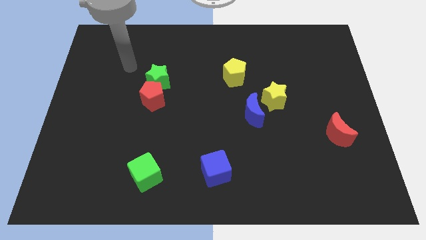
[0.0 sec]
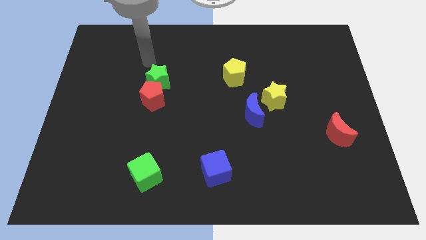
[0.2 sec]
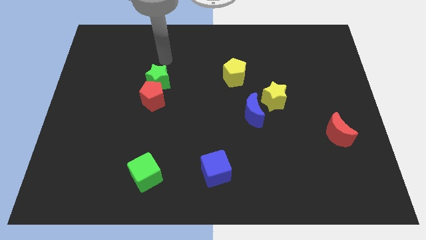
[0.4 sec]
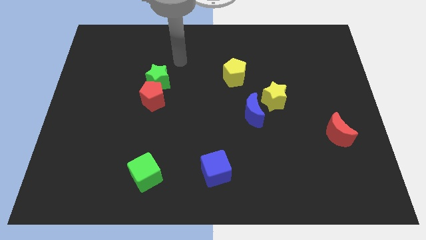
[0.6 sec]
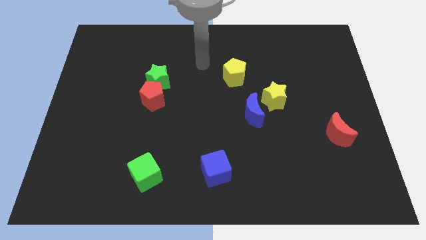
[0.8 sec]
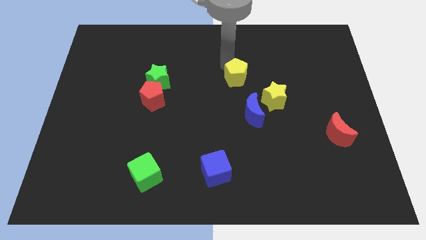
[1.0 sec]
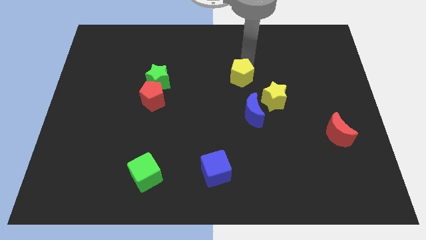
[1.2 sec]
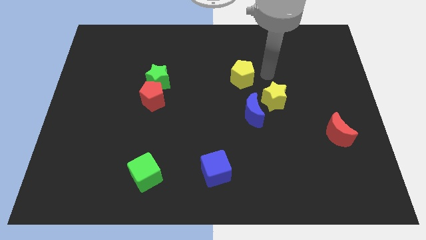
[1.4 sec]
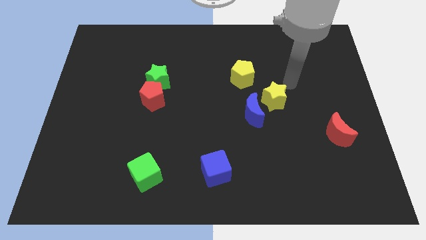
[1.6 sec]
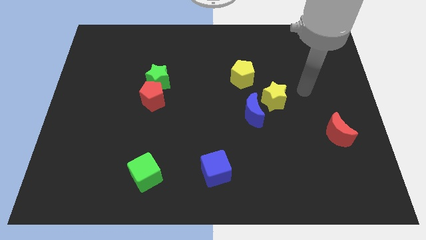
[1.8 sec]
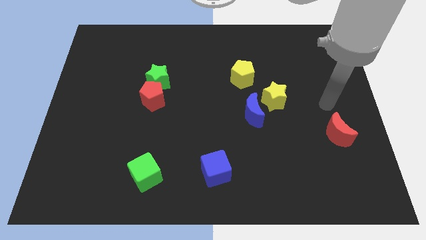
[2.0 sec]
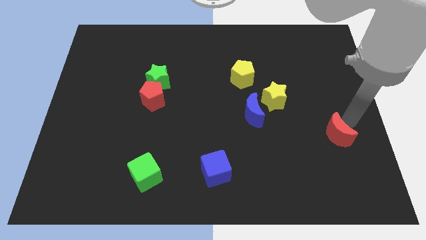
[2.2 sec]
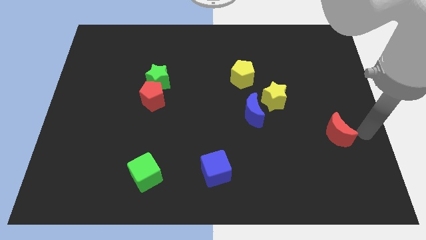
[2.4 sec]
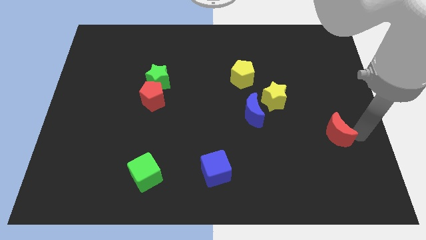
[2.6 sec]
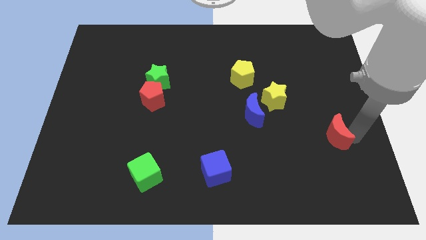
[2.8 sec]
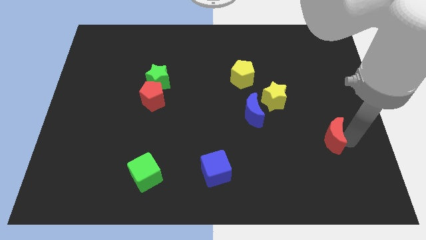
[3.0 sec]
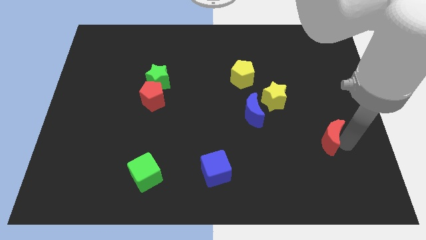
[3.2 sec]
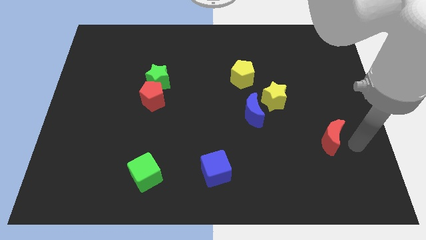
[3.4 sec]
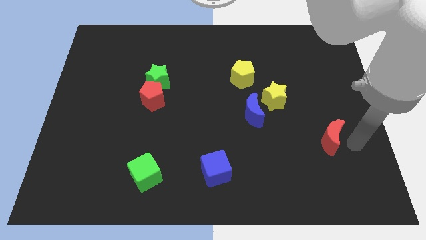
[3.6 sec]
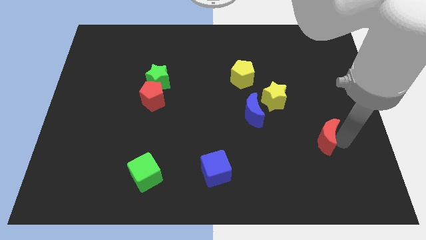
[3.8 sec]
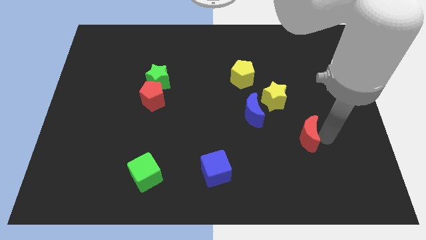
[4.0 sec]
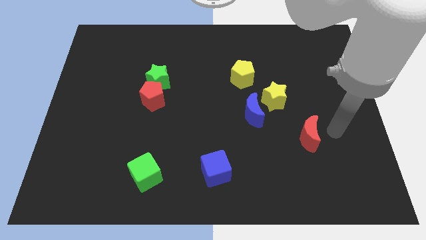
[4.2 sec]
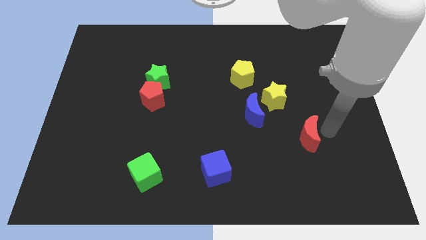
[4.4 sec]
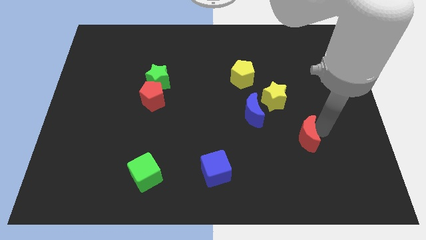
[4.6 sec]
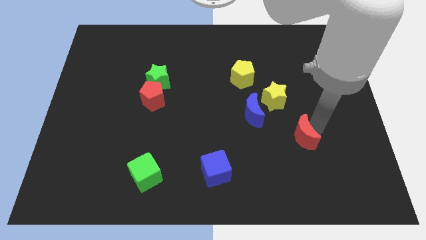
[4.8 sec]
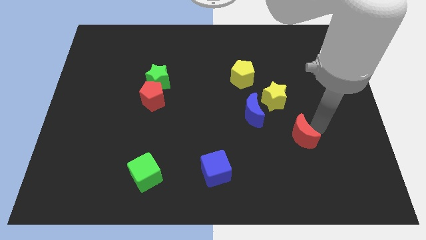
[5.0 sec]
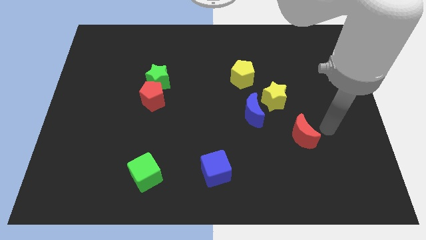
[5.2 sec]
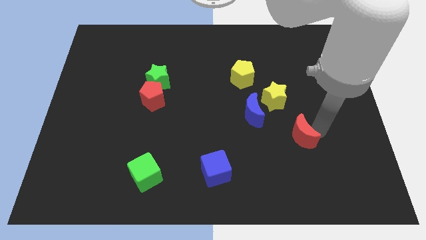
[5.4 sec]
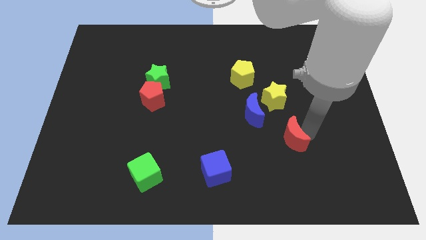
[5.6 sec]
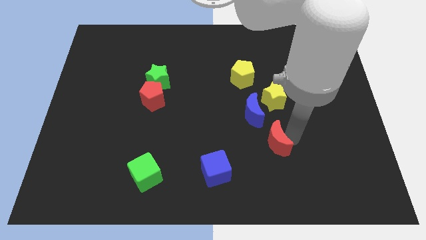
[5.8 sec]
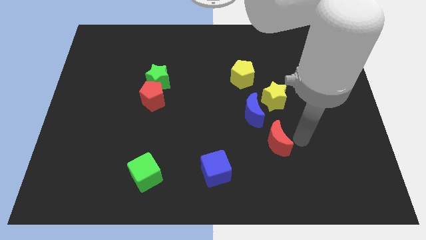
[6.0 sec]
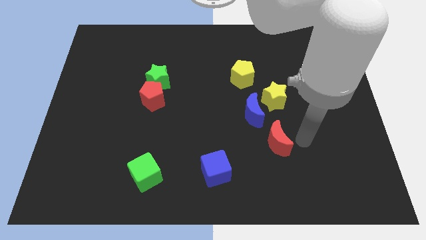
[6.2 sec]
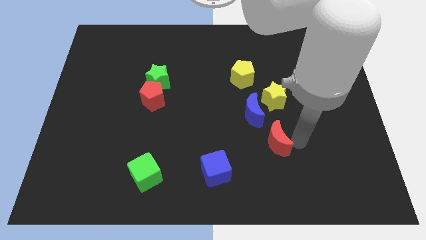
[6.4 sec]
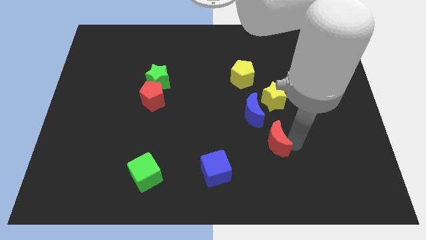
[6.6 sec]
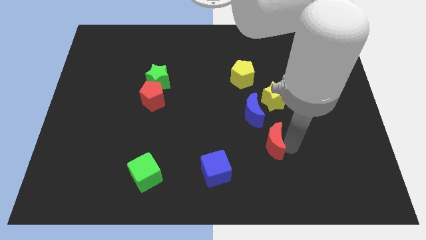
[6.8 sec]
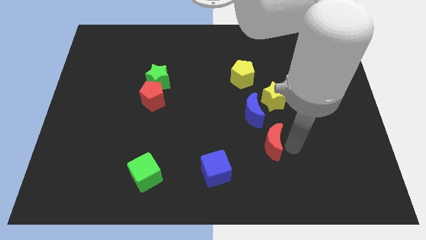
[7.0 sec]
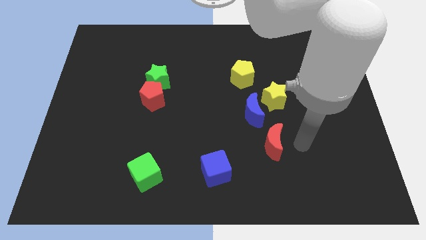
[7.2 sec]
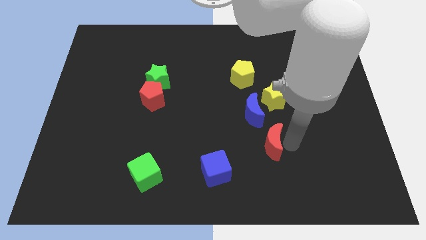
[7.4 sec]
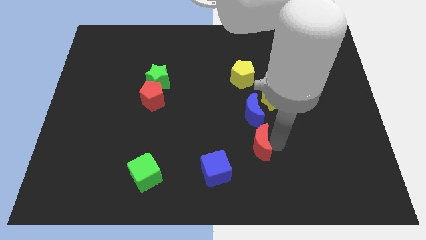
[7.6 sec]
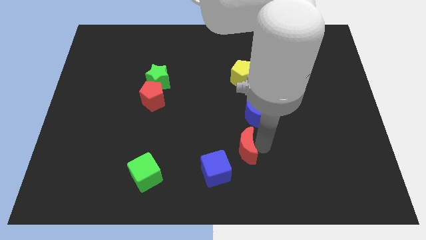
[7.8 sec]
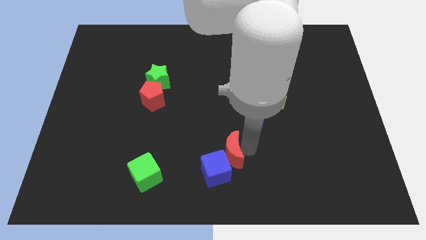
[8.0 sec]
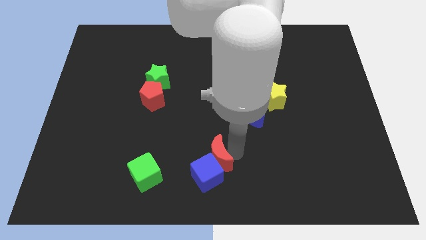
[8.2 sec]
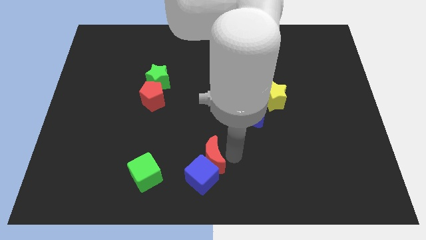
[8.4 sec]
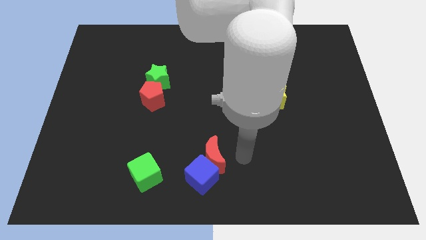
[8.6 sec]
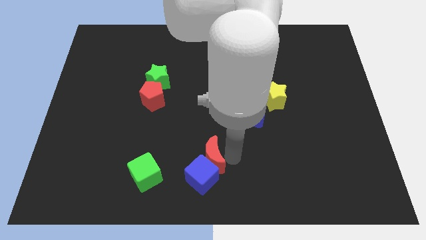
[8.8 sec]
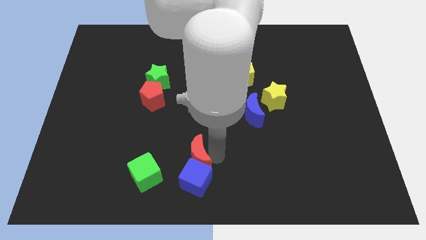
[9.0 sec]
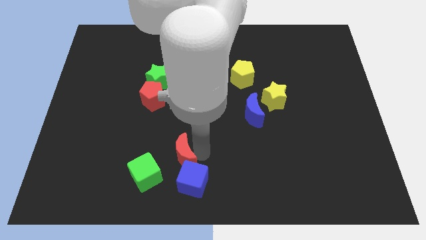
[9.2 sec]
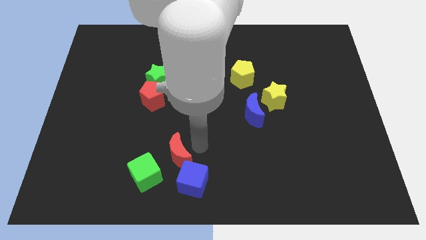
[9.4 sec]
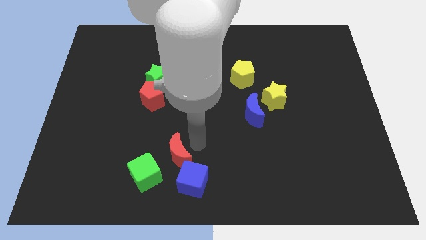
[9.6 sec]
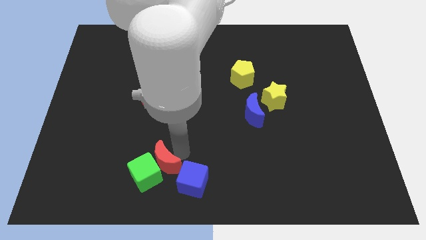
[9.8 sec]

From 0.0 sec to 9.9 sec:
slide the red moon close to the green cube

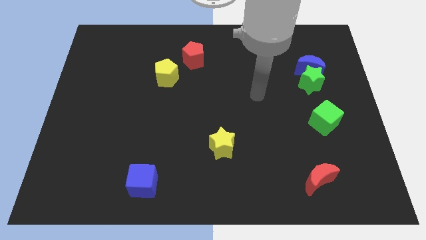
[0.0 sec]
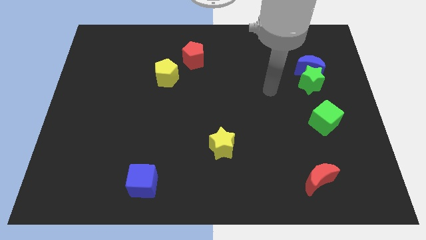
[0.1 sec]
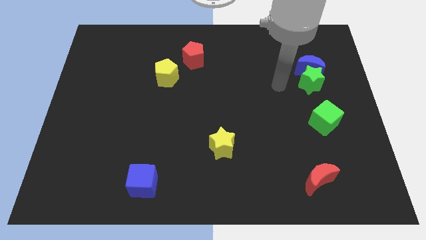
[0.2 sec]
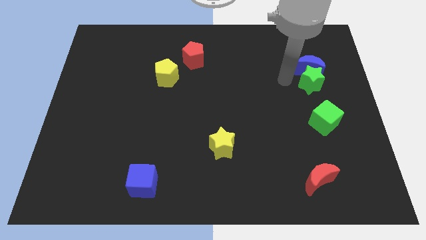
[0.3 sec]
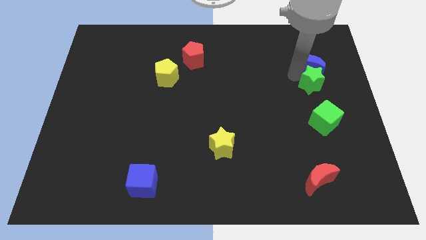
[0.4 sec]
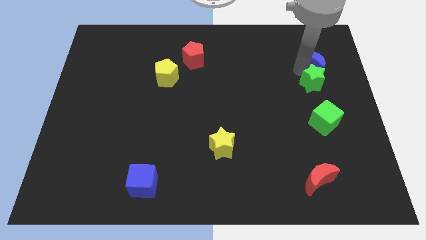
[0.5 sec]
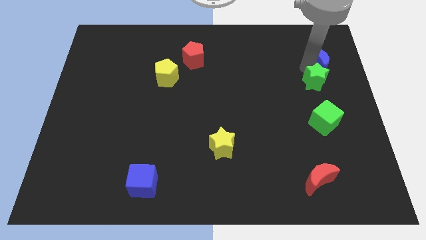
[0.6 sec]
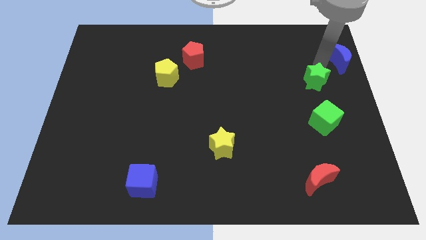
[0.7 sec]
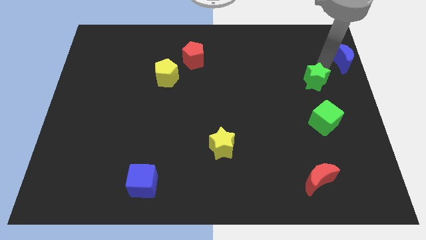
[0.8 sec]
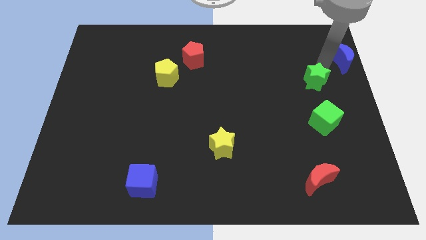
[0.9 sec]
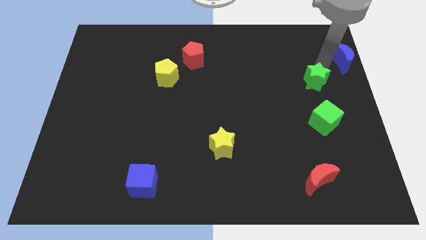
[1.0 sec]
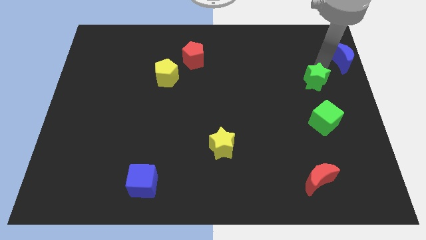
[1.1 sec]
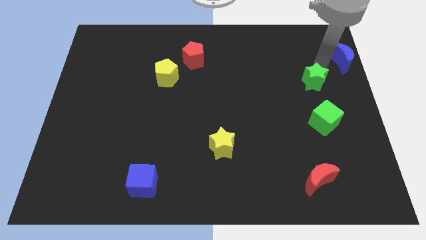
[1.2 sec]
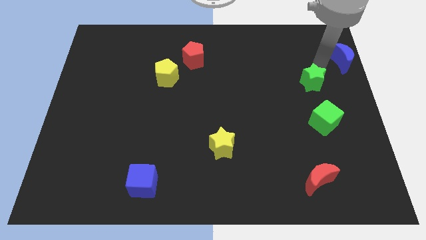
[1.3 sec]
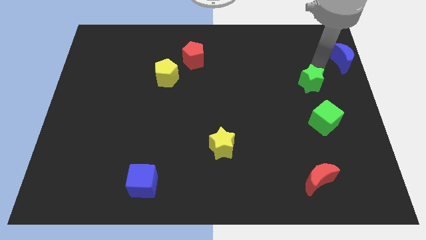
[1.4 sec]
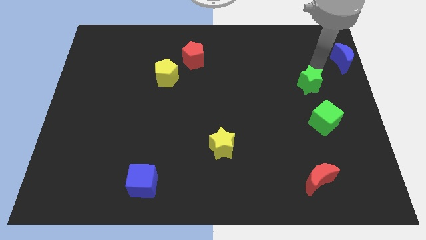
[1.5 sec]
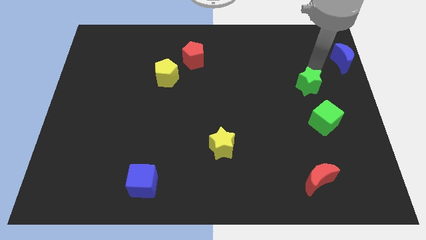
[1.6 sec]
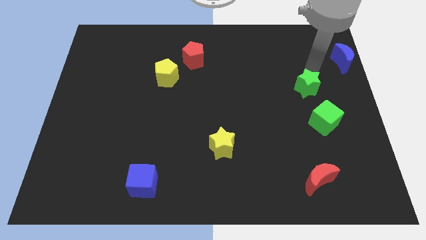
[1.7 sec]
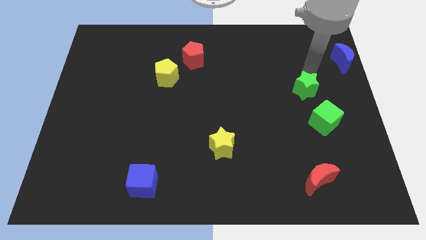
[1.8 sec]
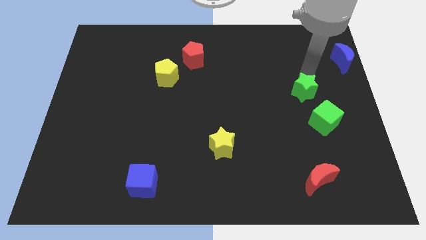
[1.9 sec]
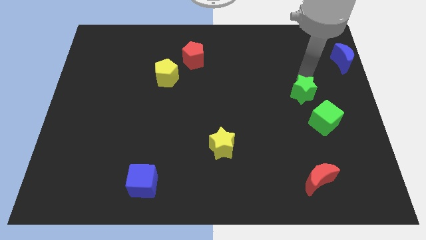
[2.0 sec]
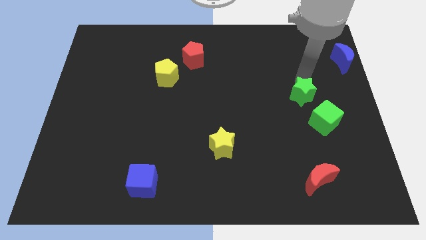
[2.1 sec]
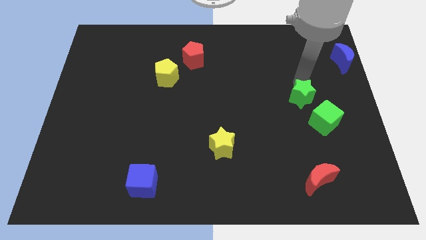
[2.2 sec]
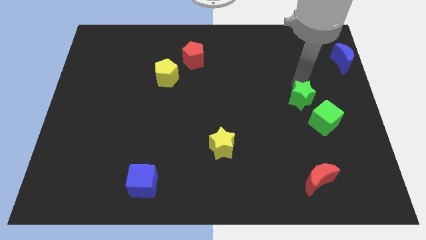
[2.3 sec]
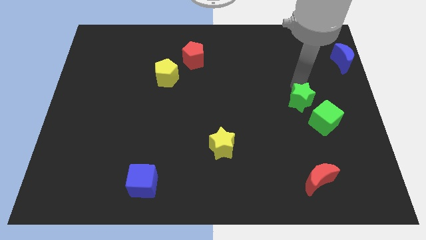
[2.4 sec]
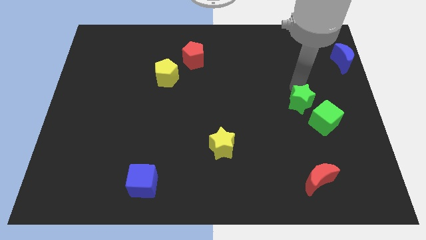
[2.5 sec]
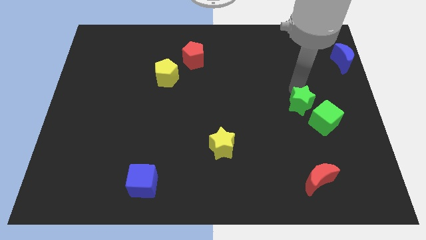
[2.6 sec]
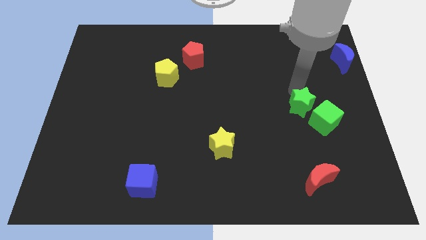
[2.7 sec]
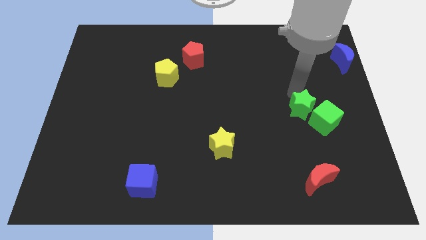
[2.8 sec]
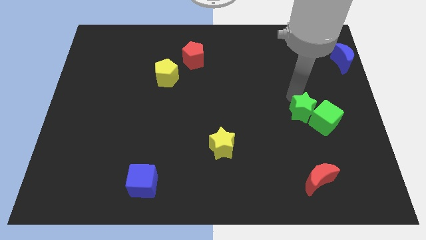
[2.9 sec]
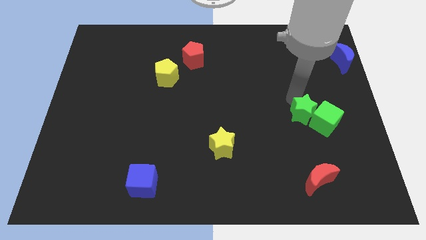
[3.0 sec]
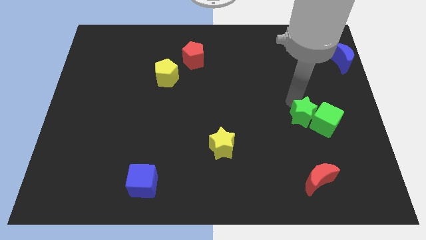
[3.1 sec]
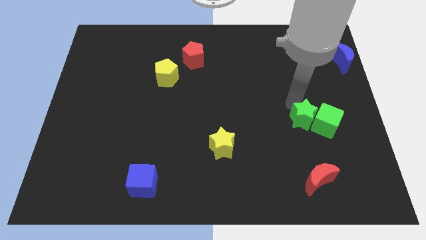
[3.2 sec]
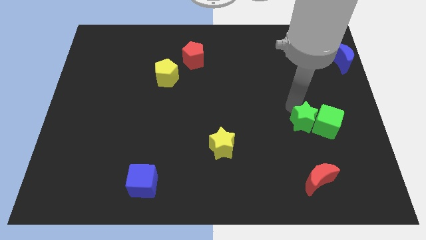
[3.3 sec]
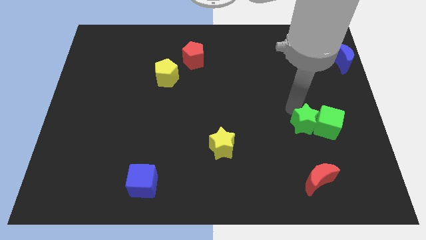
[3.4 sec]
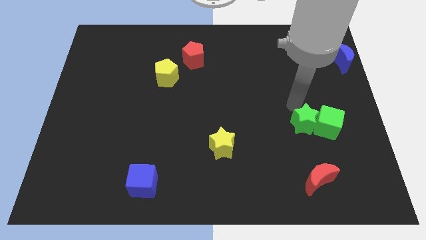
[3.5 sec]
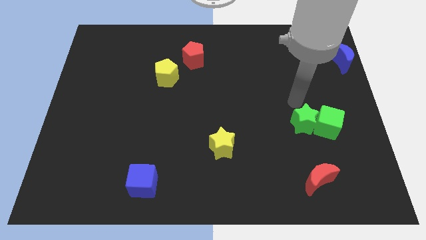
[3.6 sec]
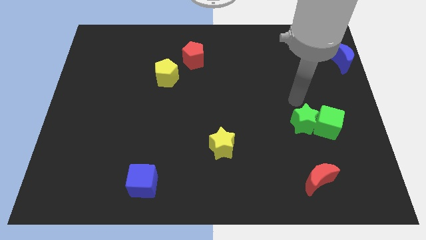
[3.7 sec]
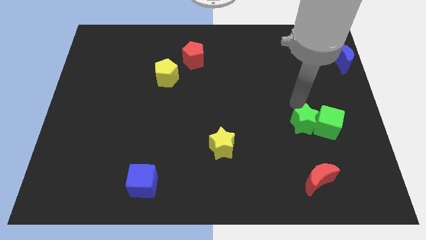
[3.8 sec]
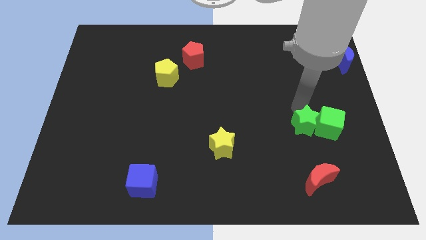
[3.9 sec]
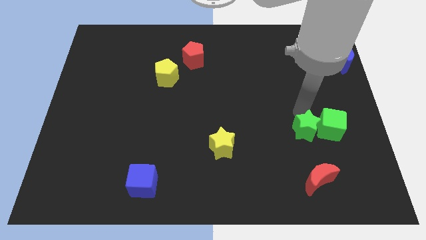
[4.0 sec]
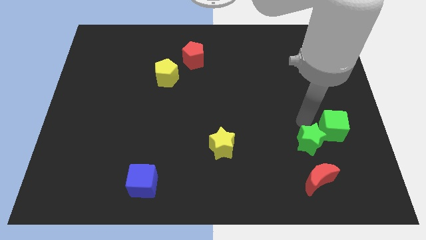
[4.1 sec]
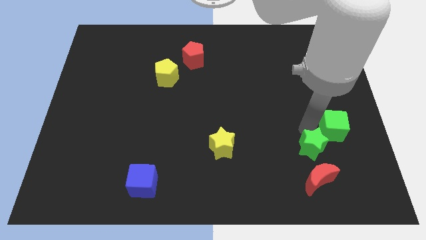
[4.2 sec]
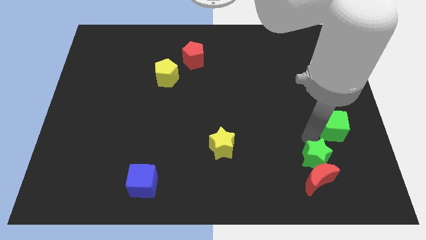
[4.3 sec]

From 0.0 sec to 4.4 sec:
put the green star close to the red moon
